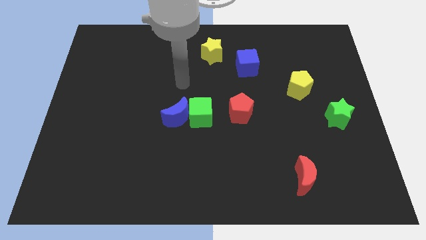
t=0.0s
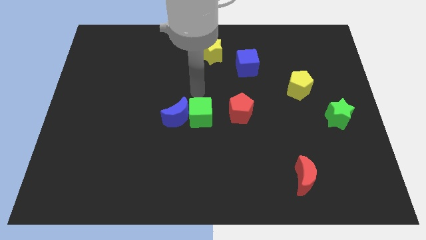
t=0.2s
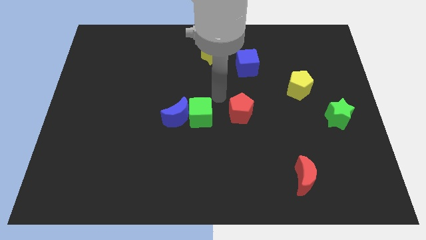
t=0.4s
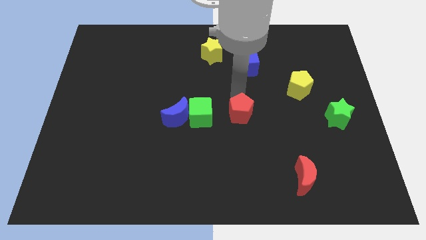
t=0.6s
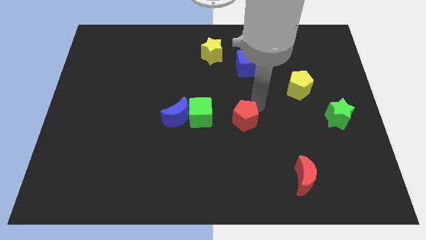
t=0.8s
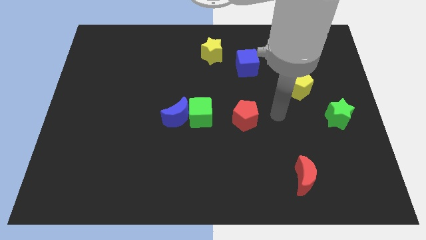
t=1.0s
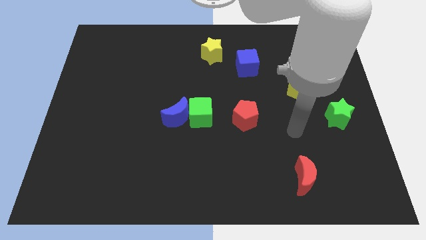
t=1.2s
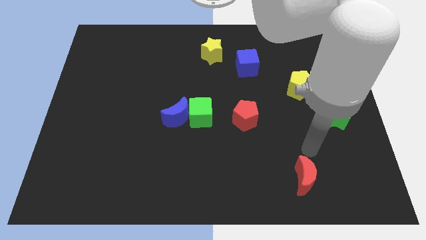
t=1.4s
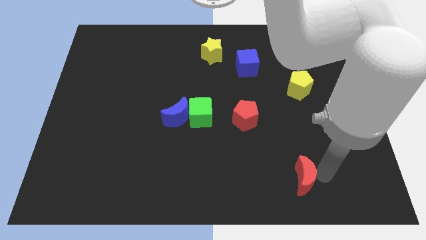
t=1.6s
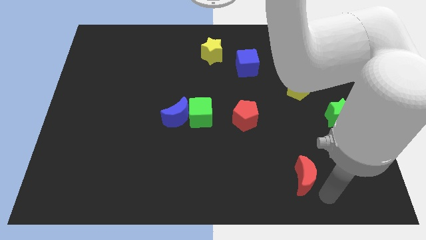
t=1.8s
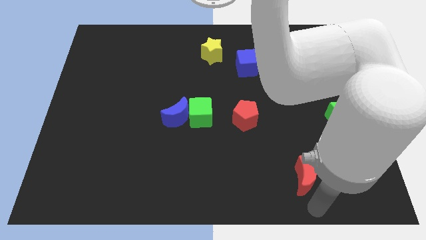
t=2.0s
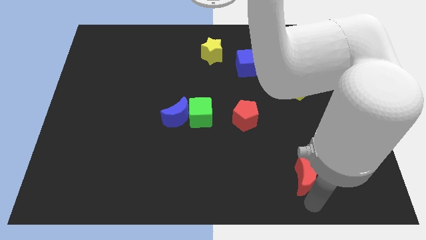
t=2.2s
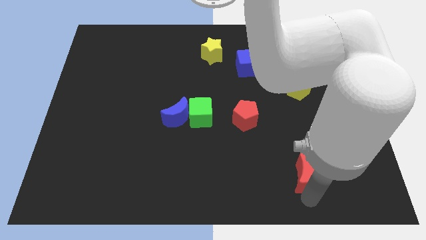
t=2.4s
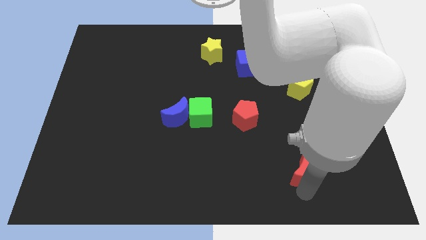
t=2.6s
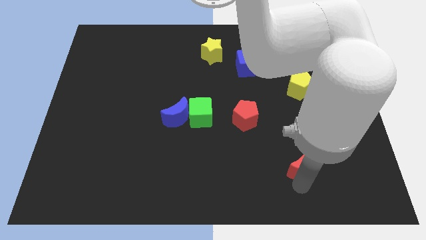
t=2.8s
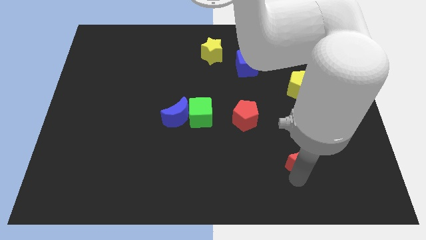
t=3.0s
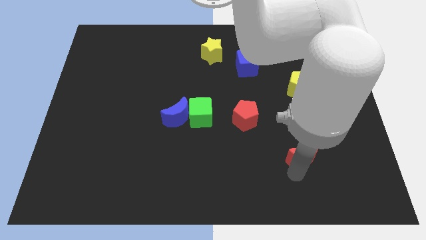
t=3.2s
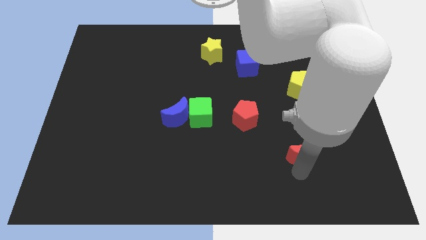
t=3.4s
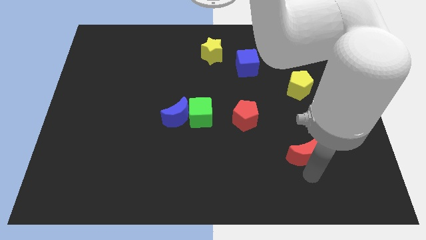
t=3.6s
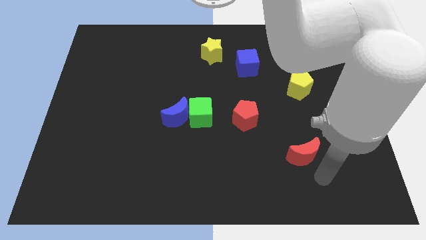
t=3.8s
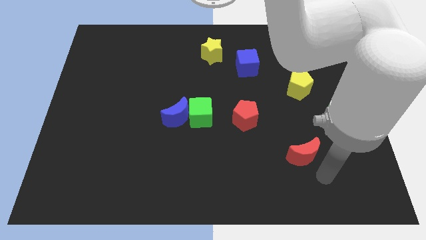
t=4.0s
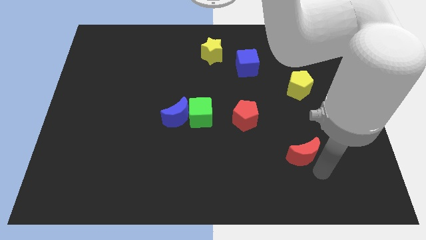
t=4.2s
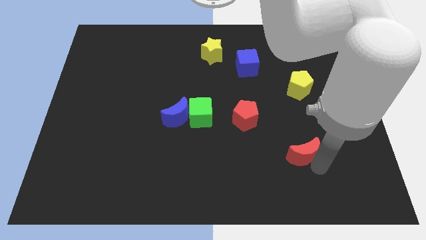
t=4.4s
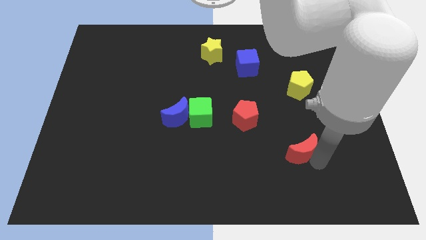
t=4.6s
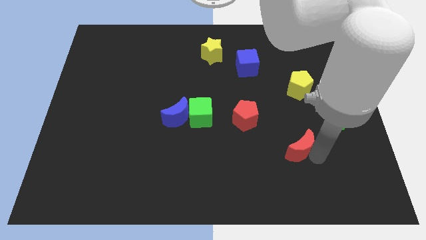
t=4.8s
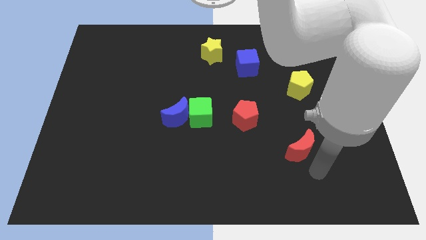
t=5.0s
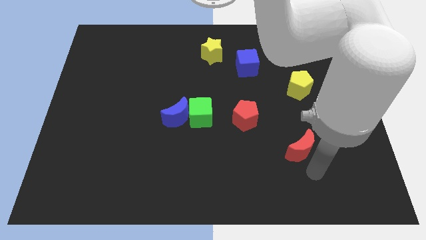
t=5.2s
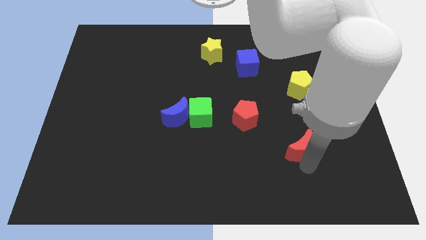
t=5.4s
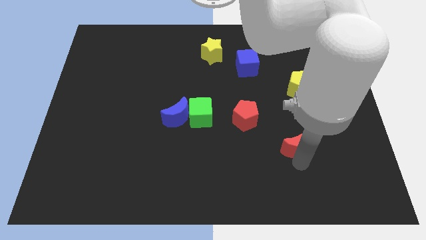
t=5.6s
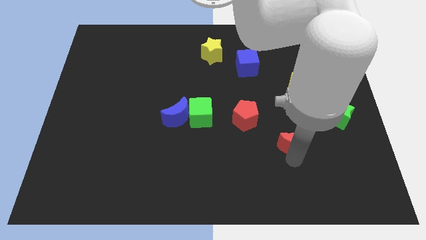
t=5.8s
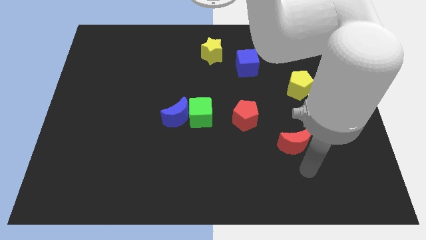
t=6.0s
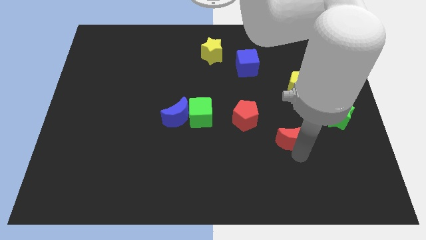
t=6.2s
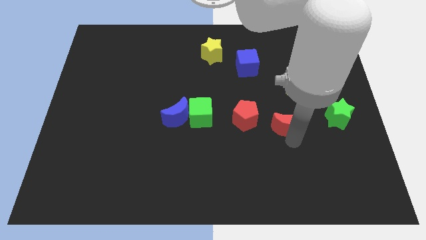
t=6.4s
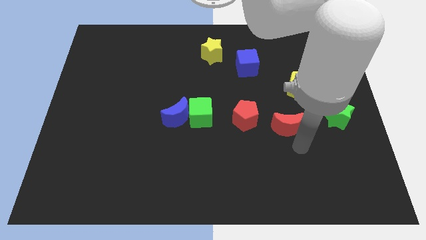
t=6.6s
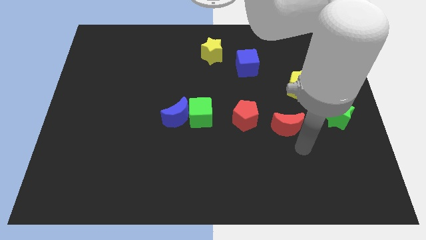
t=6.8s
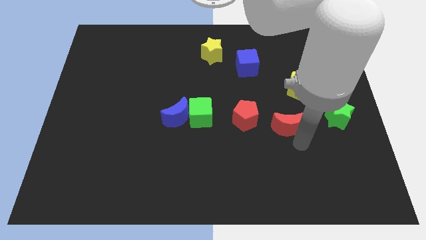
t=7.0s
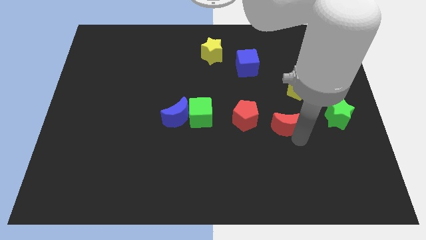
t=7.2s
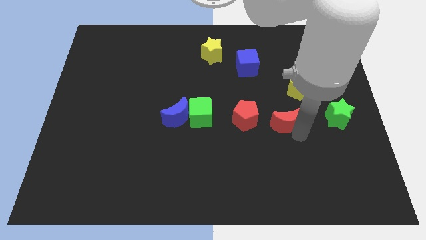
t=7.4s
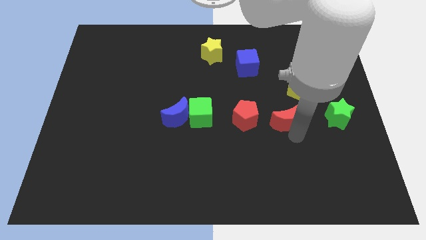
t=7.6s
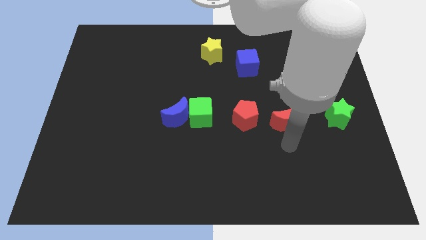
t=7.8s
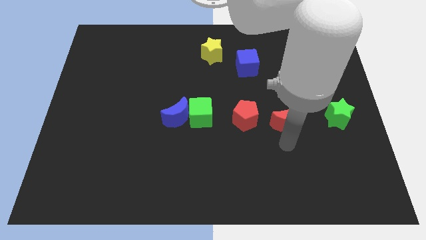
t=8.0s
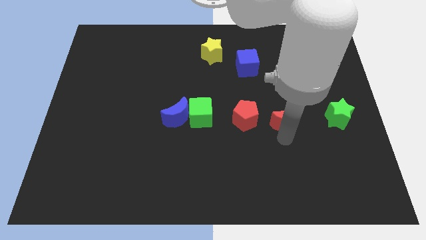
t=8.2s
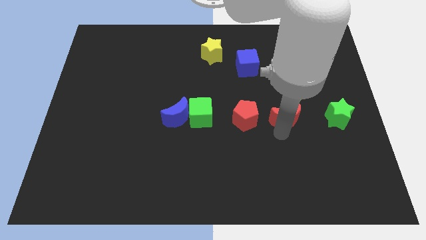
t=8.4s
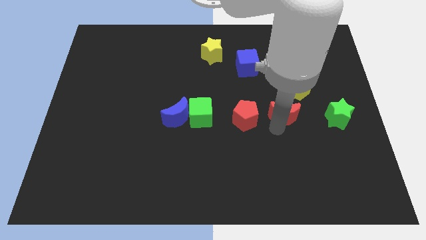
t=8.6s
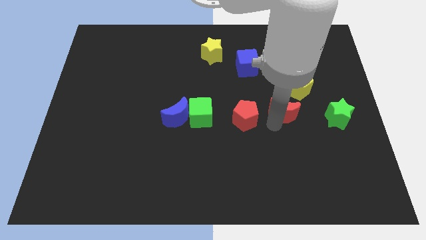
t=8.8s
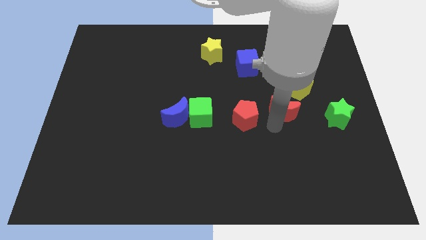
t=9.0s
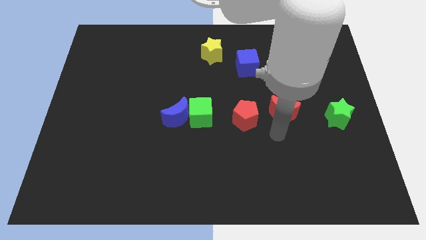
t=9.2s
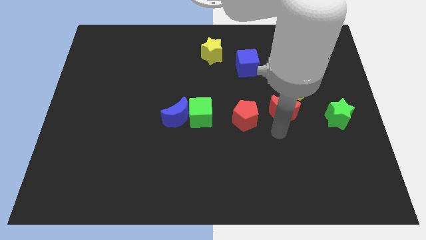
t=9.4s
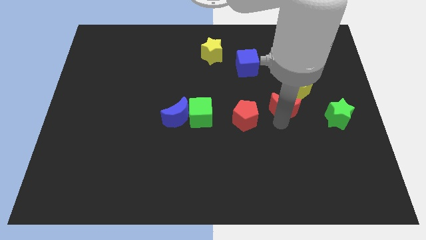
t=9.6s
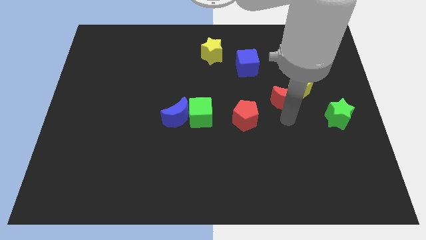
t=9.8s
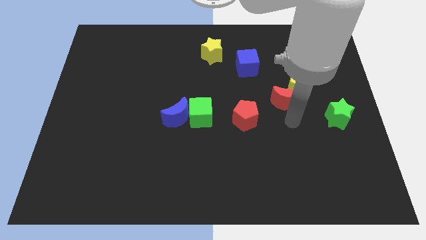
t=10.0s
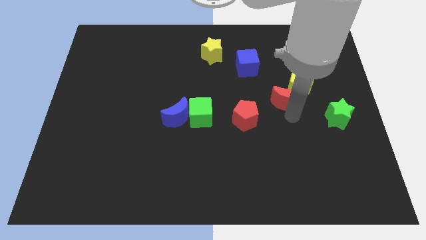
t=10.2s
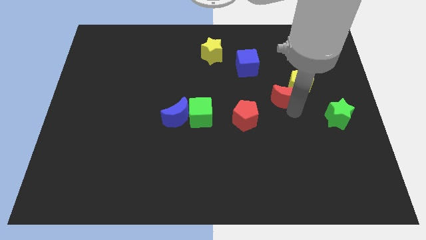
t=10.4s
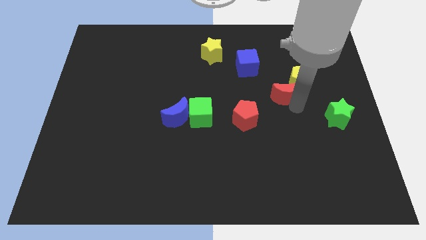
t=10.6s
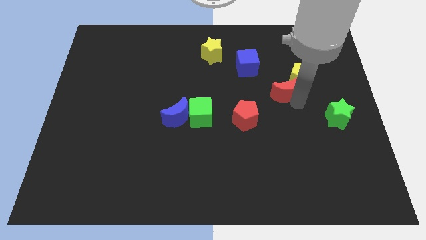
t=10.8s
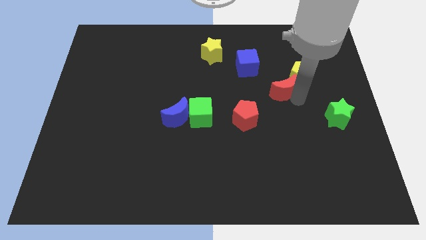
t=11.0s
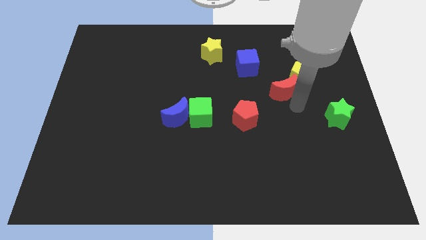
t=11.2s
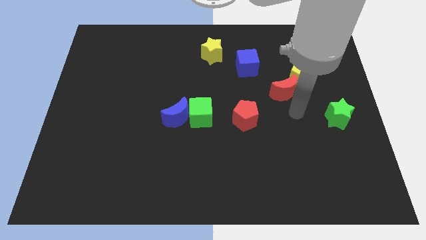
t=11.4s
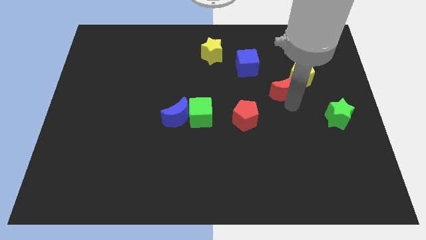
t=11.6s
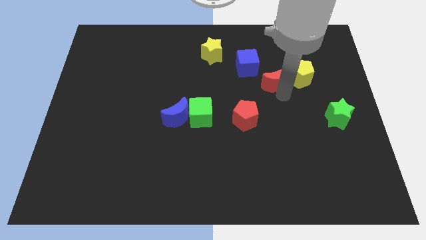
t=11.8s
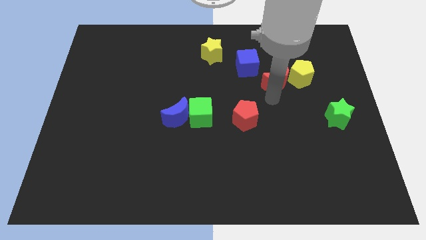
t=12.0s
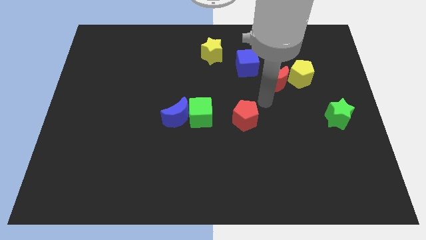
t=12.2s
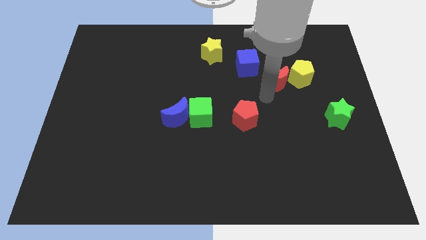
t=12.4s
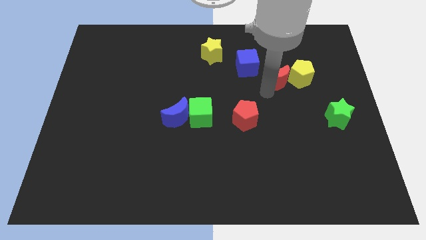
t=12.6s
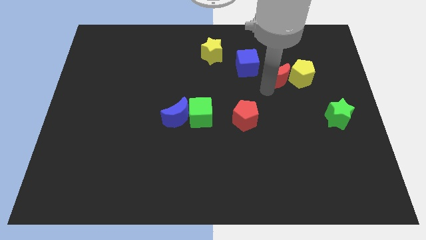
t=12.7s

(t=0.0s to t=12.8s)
put the red moon just right of the blue cube
